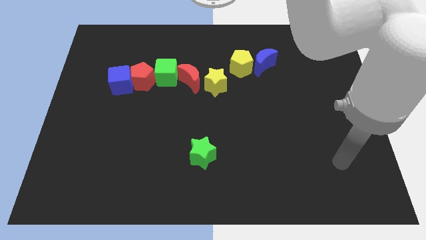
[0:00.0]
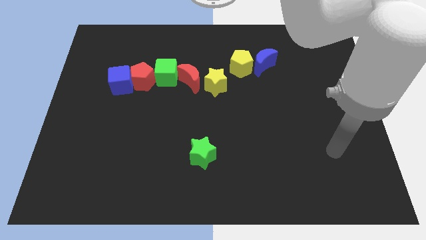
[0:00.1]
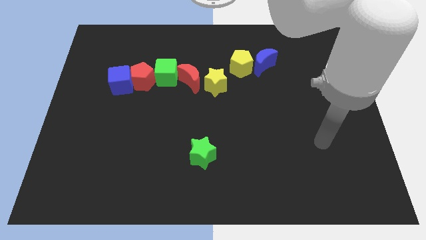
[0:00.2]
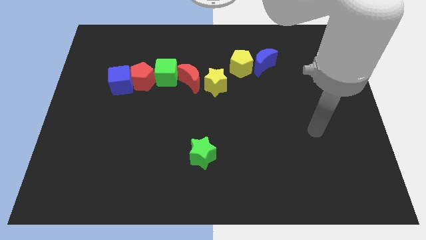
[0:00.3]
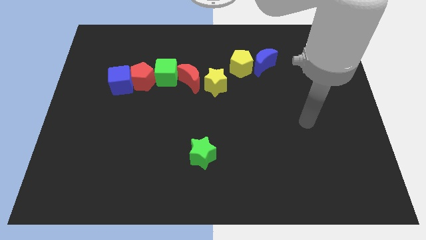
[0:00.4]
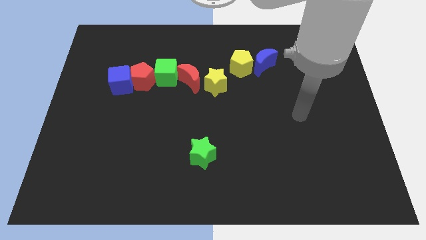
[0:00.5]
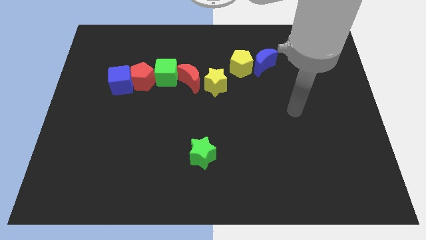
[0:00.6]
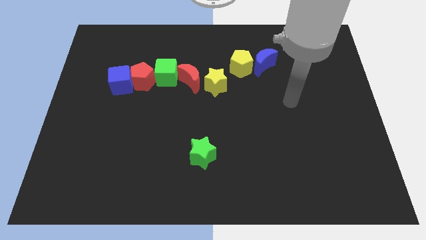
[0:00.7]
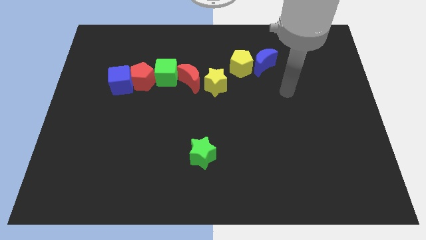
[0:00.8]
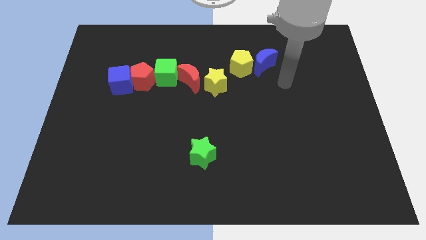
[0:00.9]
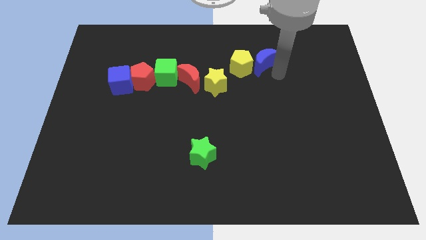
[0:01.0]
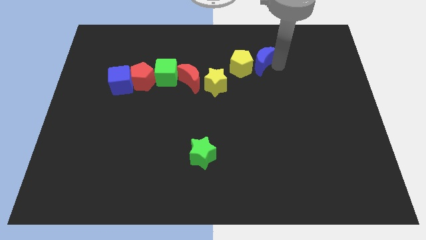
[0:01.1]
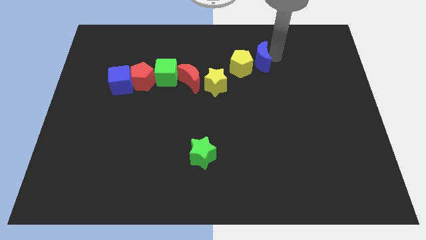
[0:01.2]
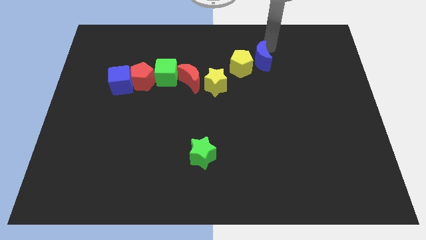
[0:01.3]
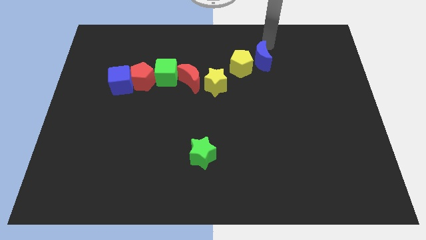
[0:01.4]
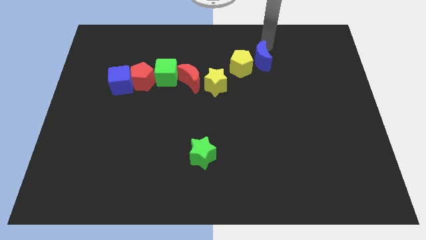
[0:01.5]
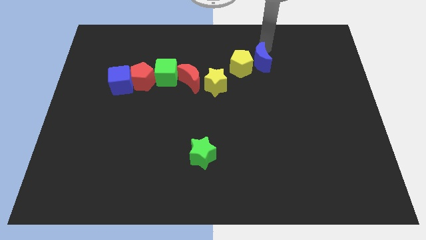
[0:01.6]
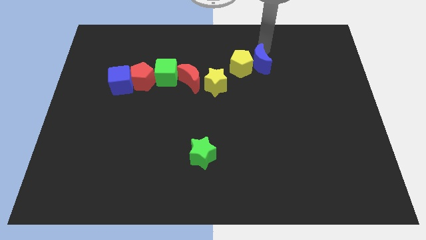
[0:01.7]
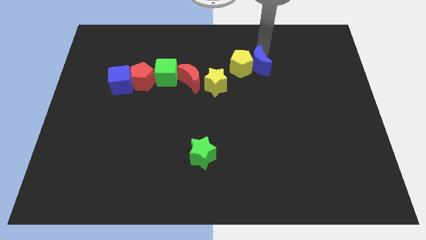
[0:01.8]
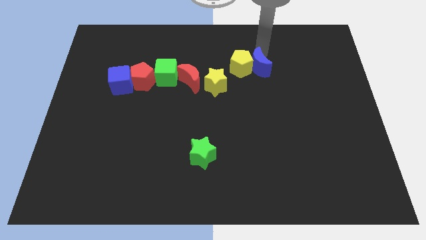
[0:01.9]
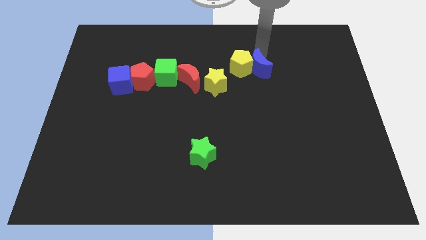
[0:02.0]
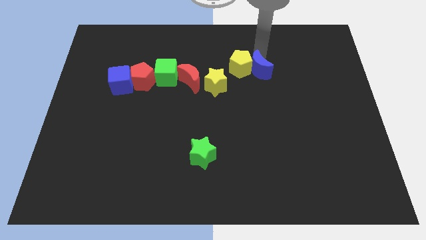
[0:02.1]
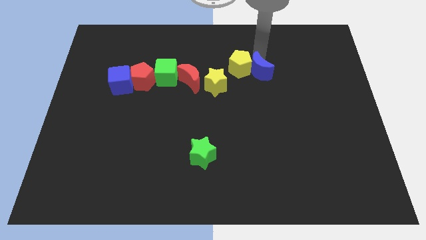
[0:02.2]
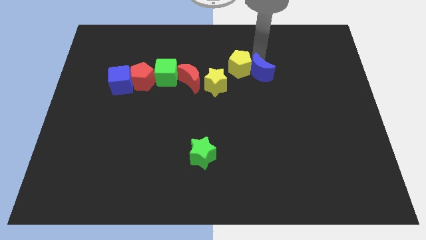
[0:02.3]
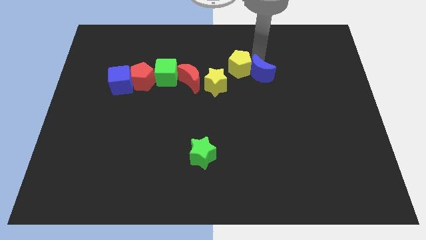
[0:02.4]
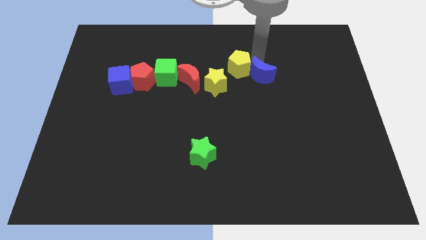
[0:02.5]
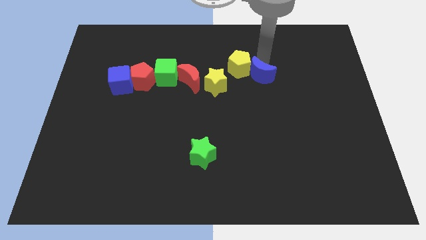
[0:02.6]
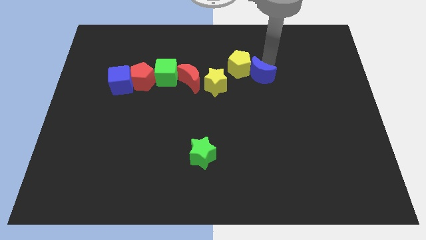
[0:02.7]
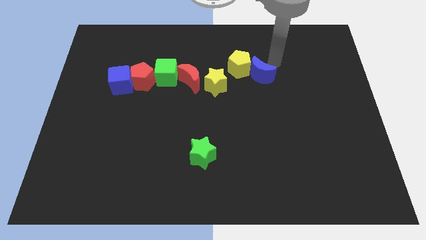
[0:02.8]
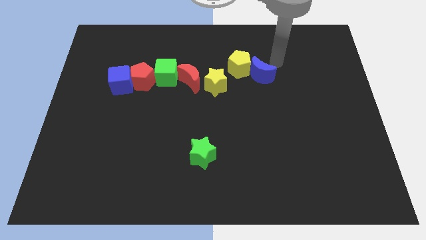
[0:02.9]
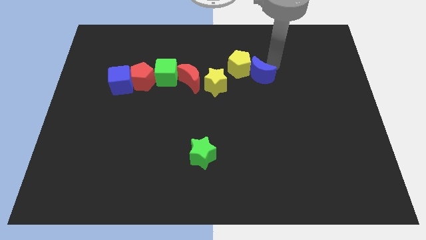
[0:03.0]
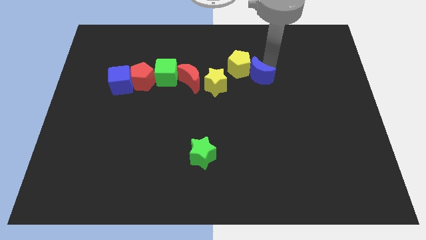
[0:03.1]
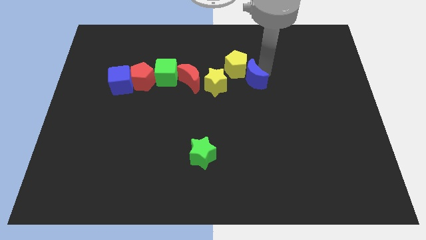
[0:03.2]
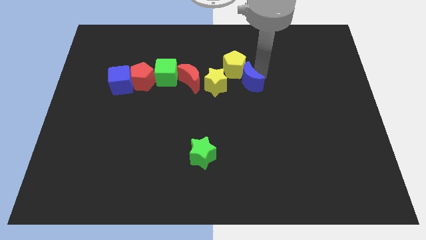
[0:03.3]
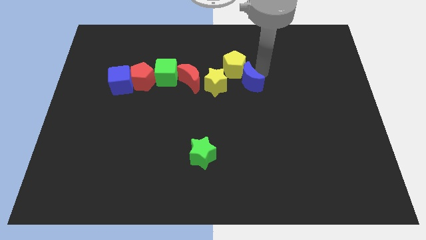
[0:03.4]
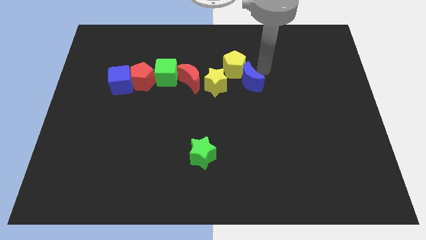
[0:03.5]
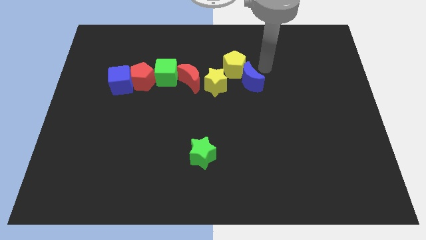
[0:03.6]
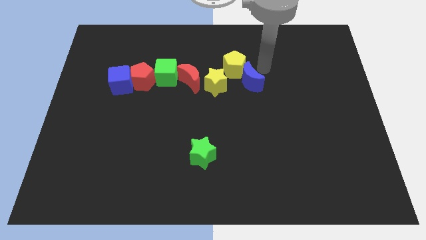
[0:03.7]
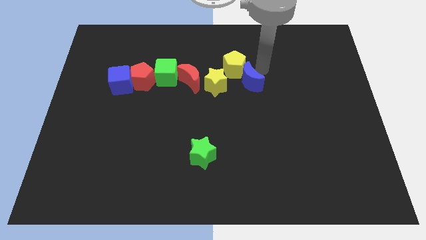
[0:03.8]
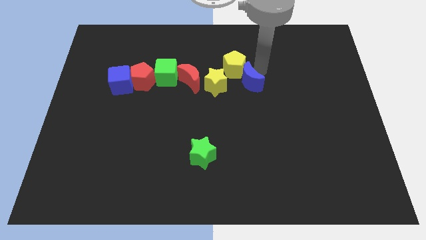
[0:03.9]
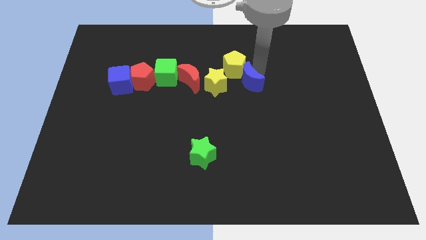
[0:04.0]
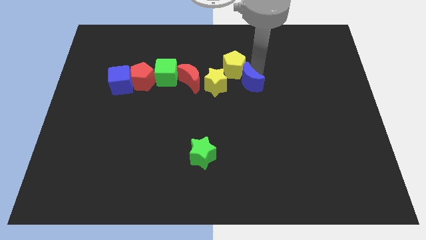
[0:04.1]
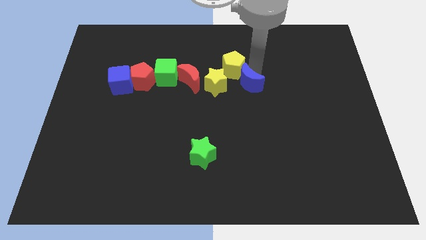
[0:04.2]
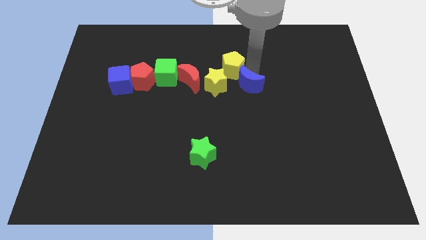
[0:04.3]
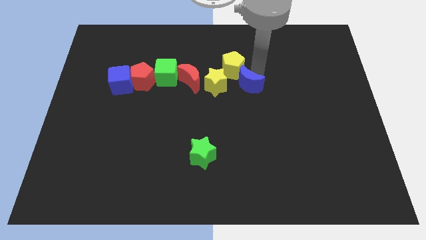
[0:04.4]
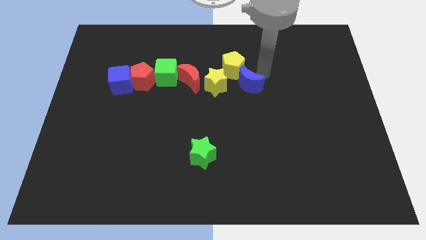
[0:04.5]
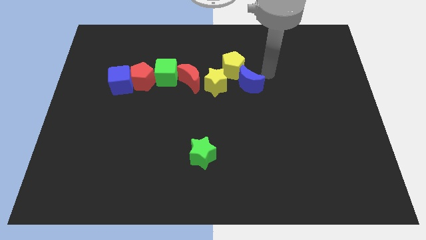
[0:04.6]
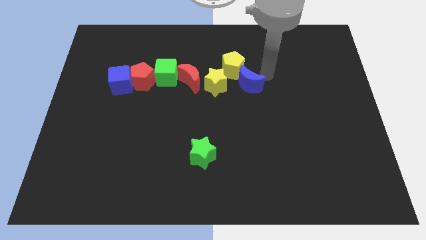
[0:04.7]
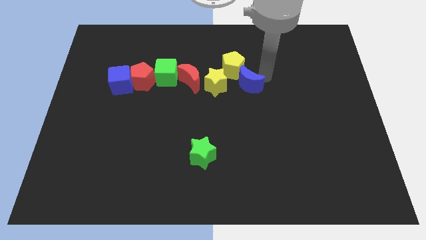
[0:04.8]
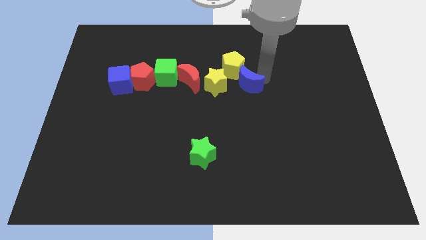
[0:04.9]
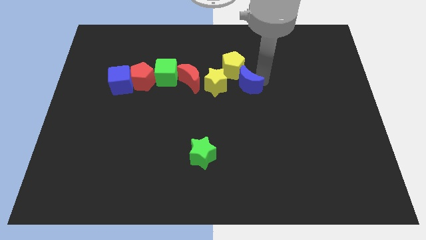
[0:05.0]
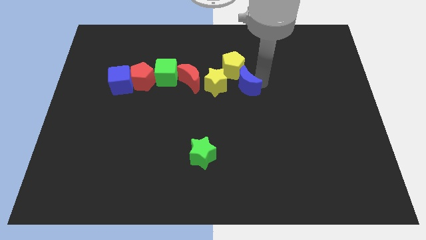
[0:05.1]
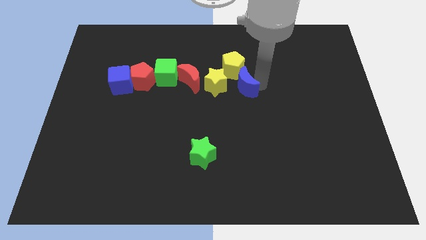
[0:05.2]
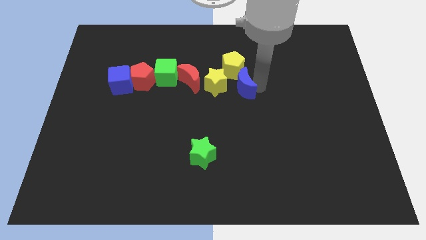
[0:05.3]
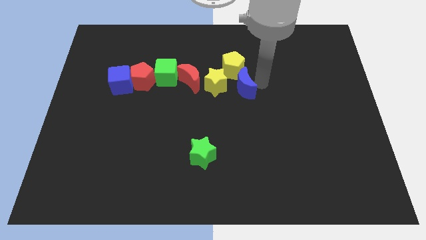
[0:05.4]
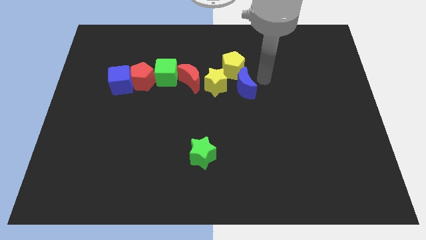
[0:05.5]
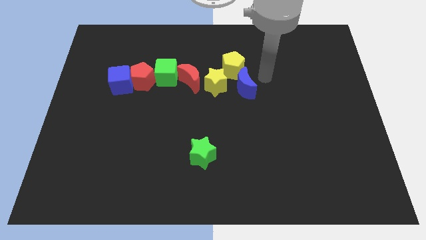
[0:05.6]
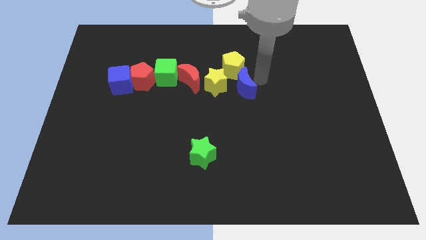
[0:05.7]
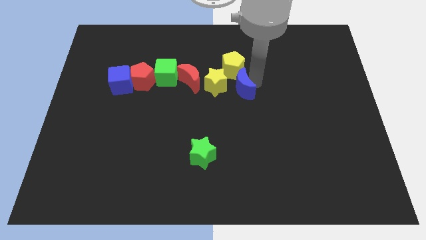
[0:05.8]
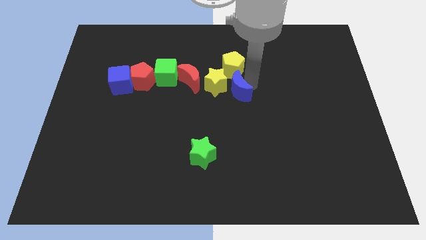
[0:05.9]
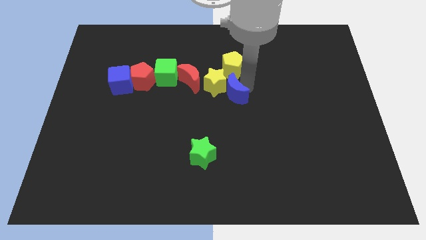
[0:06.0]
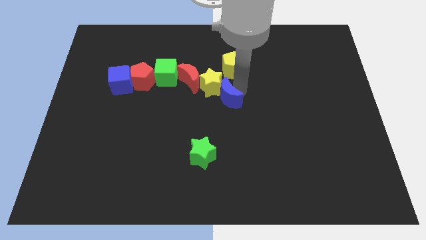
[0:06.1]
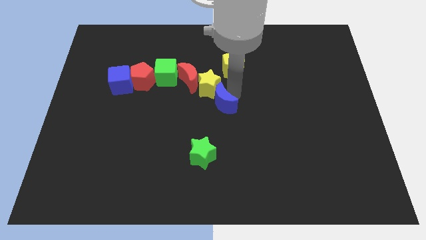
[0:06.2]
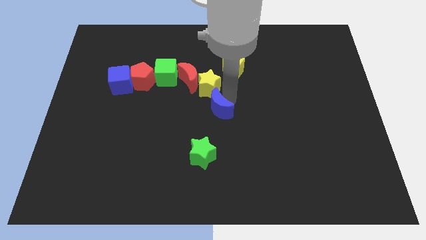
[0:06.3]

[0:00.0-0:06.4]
push the blue moon to the top of the green star

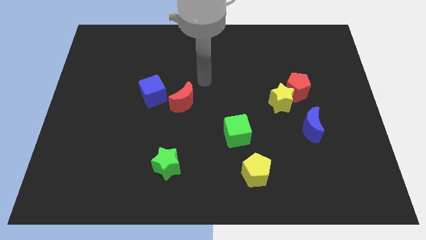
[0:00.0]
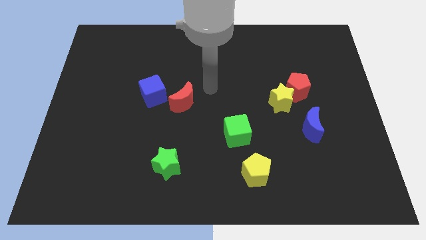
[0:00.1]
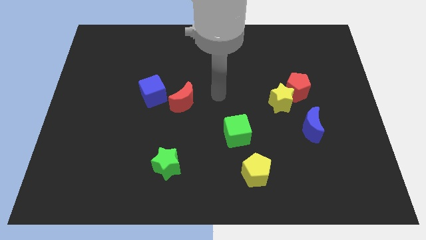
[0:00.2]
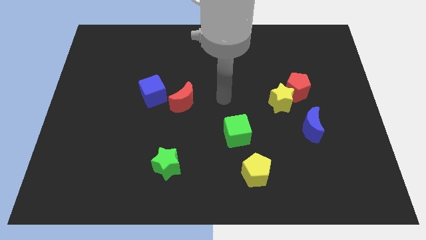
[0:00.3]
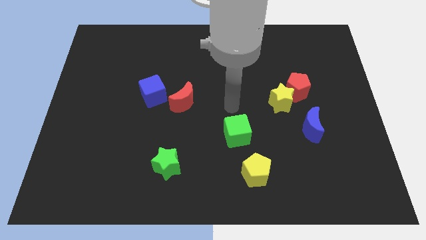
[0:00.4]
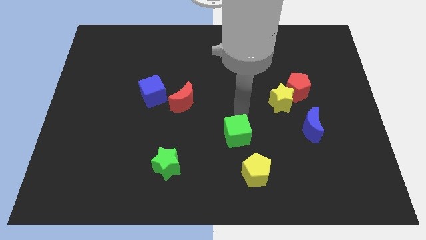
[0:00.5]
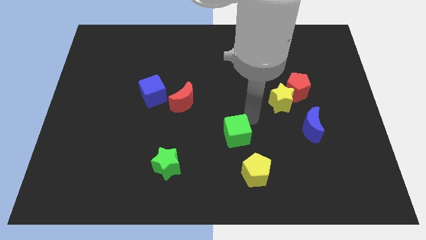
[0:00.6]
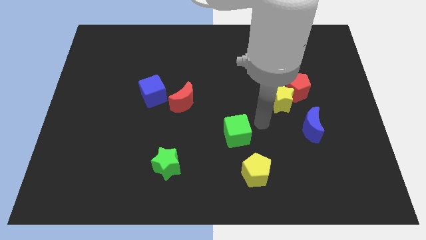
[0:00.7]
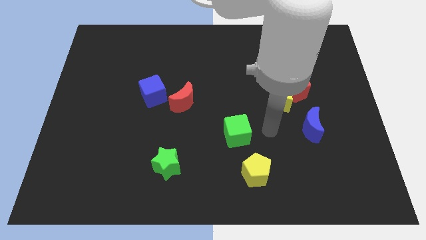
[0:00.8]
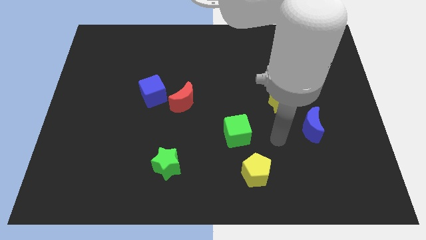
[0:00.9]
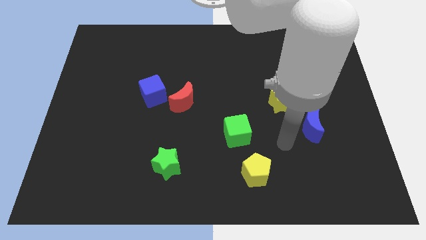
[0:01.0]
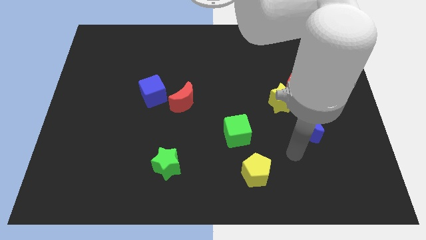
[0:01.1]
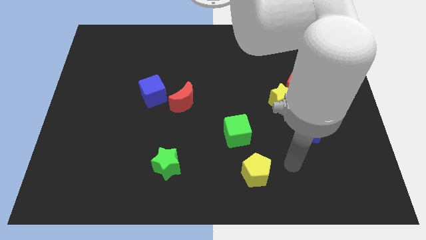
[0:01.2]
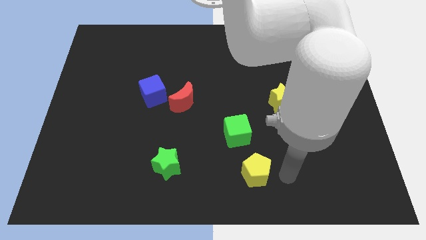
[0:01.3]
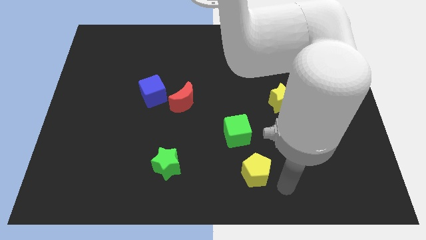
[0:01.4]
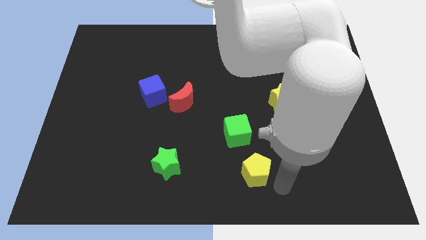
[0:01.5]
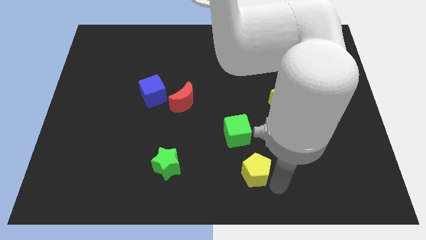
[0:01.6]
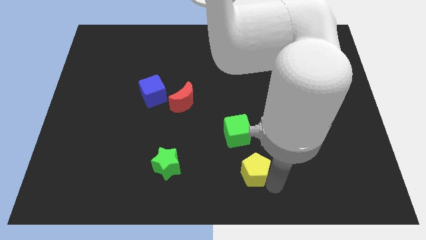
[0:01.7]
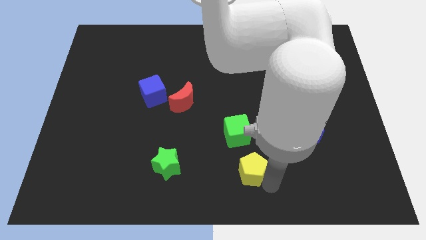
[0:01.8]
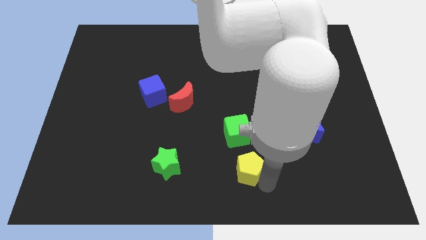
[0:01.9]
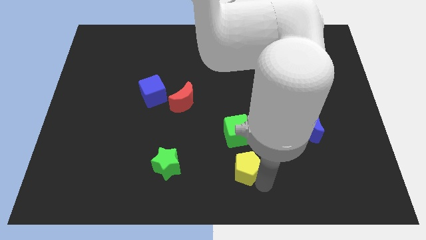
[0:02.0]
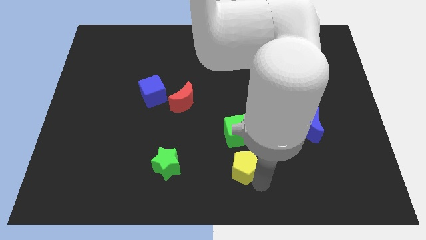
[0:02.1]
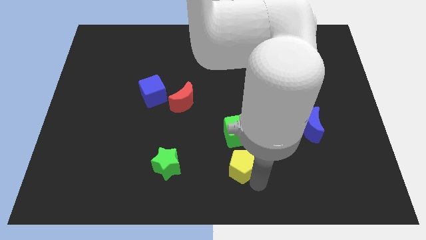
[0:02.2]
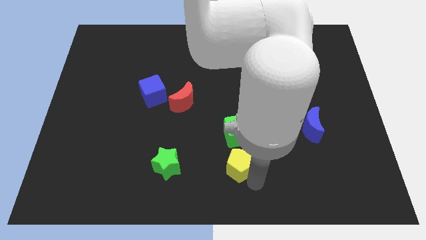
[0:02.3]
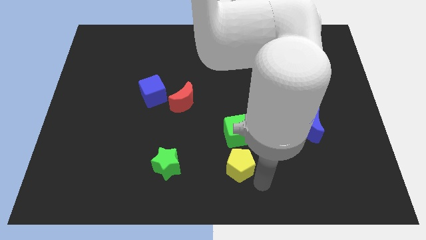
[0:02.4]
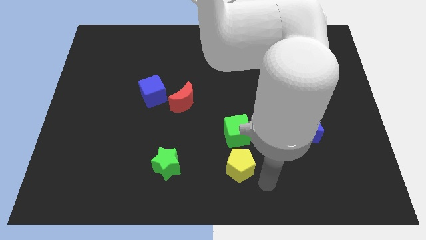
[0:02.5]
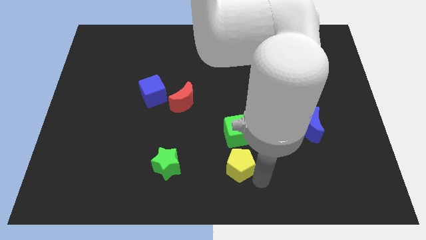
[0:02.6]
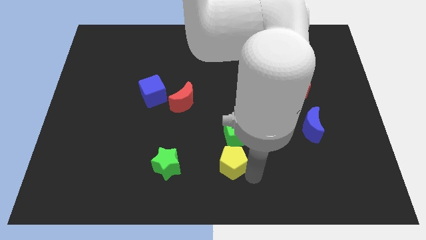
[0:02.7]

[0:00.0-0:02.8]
push the yellow pentagon to the bottom left side of the green cube
